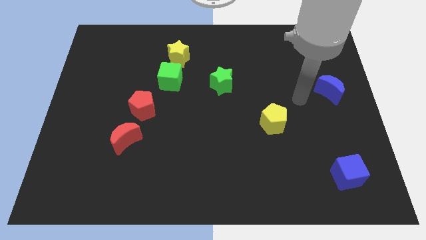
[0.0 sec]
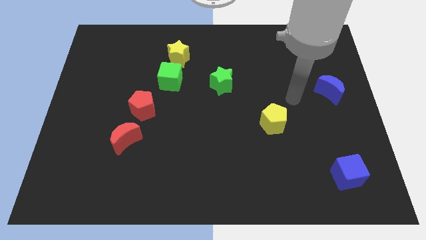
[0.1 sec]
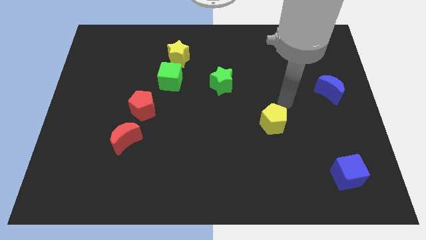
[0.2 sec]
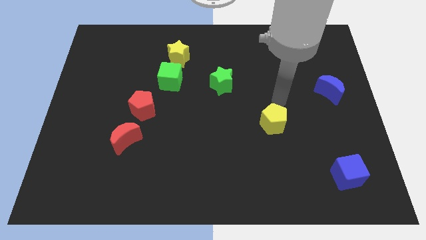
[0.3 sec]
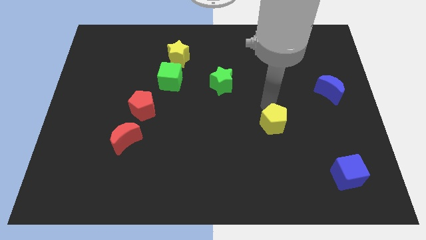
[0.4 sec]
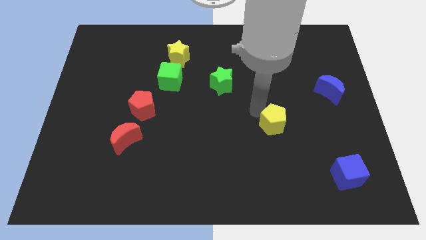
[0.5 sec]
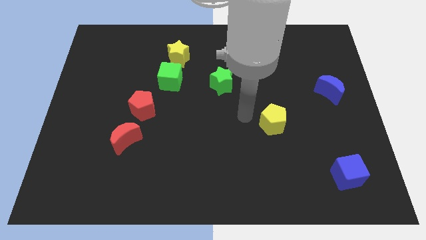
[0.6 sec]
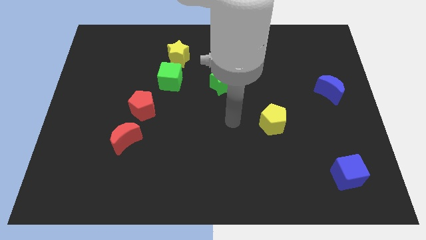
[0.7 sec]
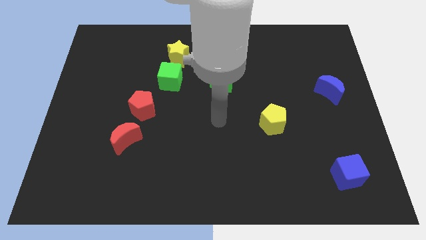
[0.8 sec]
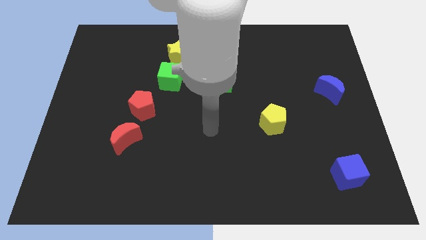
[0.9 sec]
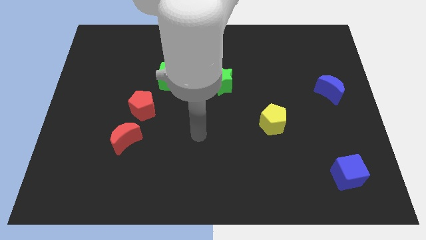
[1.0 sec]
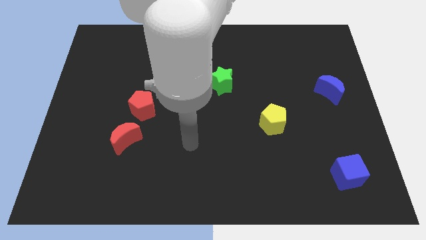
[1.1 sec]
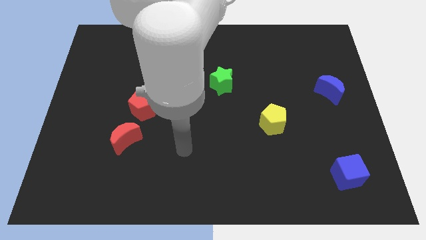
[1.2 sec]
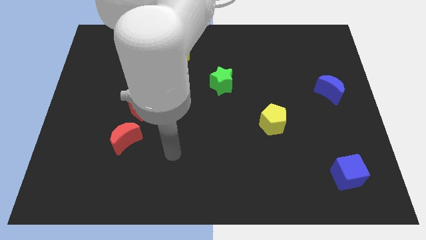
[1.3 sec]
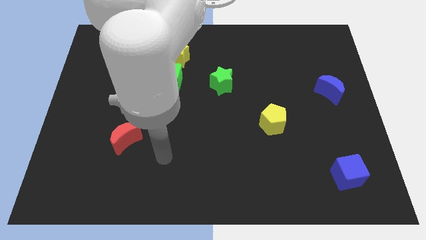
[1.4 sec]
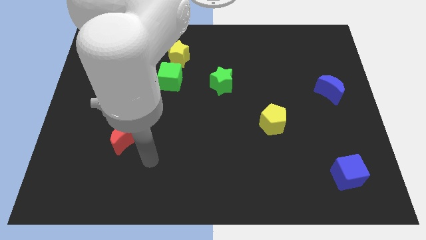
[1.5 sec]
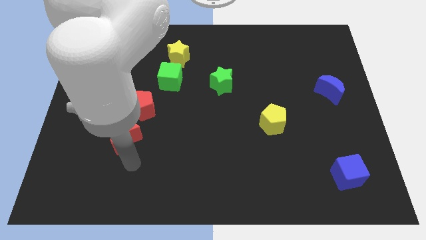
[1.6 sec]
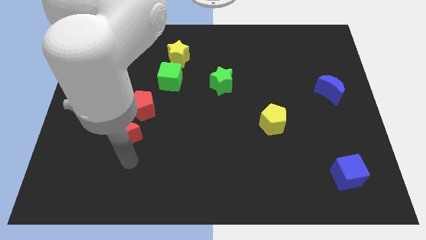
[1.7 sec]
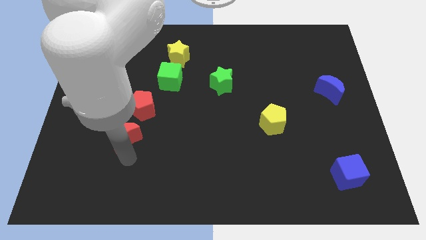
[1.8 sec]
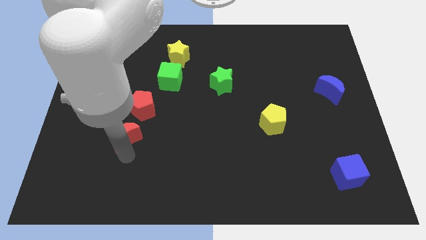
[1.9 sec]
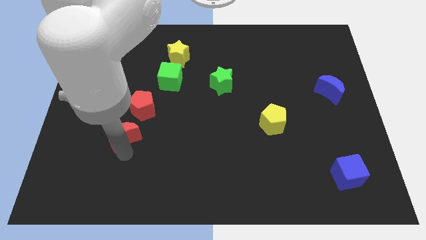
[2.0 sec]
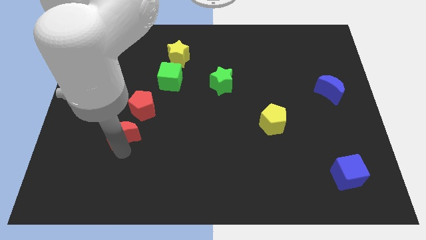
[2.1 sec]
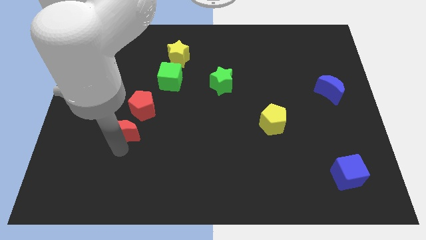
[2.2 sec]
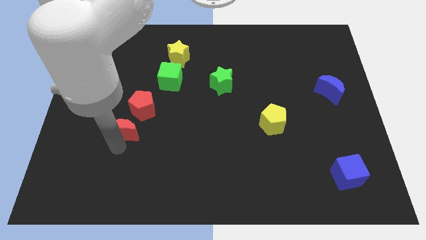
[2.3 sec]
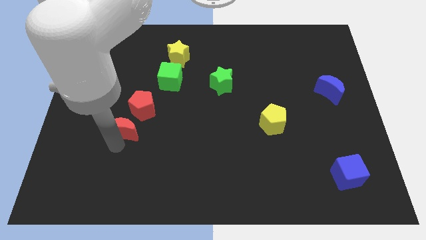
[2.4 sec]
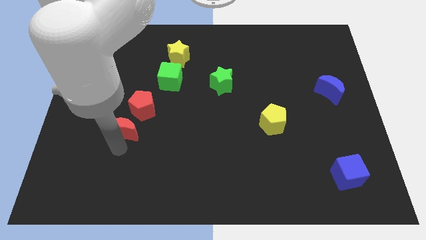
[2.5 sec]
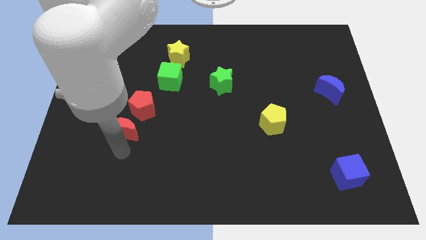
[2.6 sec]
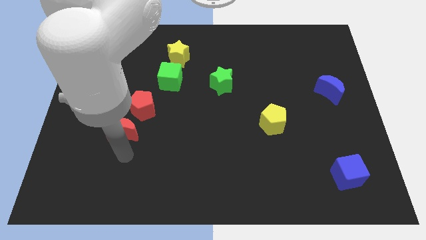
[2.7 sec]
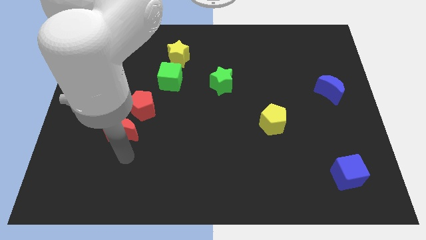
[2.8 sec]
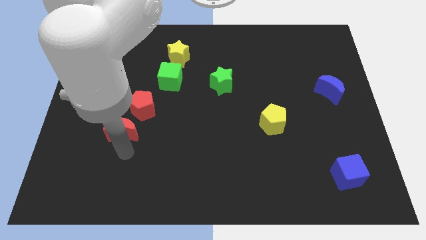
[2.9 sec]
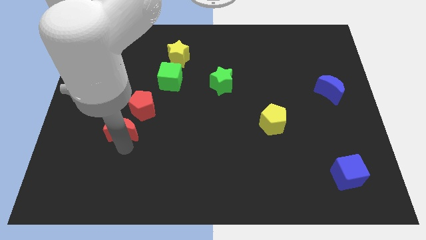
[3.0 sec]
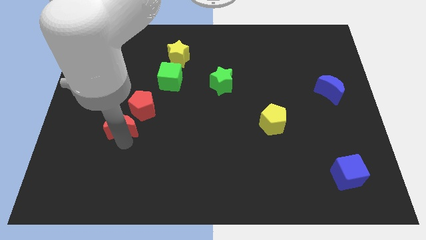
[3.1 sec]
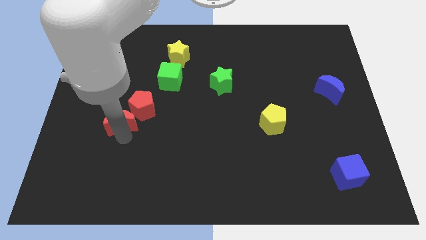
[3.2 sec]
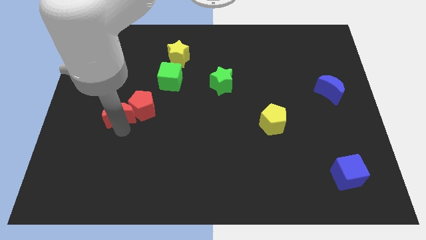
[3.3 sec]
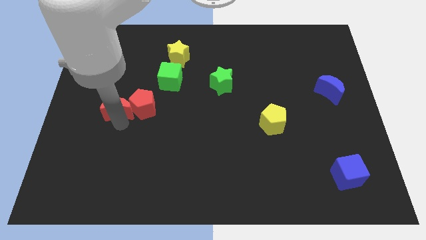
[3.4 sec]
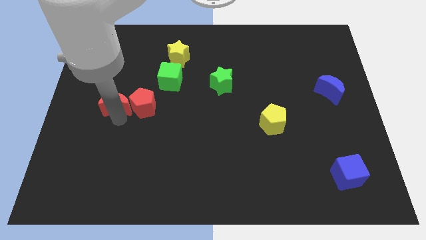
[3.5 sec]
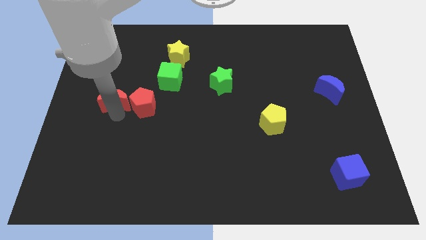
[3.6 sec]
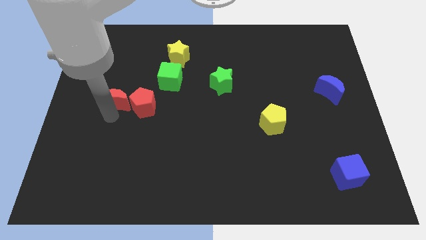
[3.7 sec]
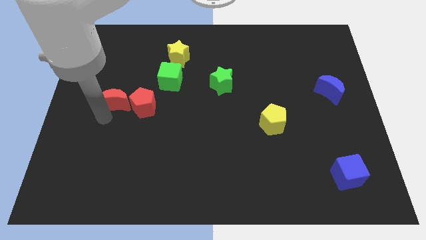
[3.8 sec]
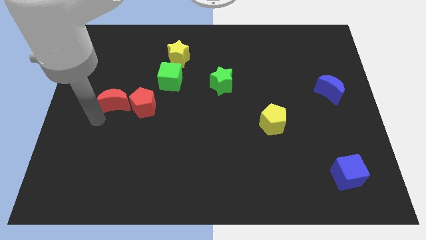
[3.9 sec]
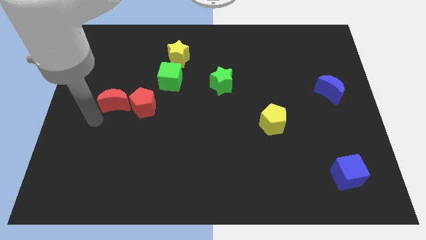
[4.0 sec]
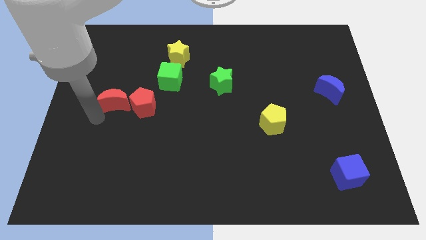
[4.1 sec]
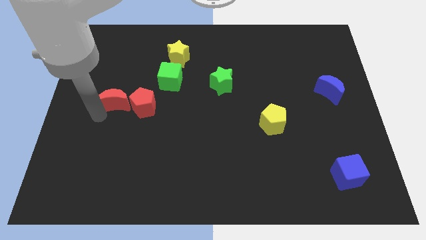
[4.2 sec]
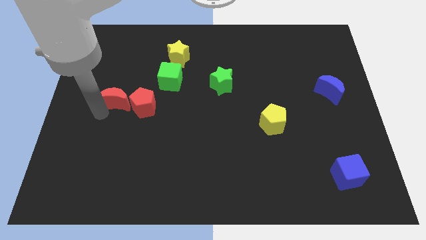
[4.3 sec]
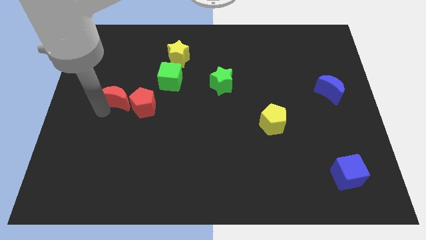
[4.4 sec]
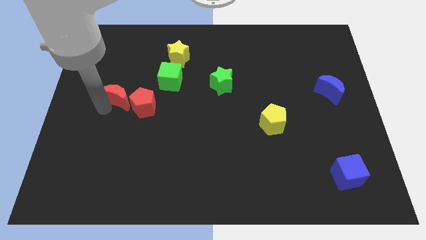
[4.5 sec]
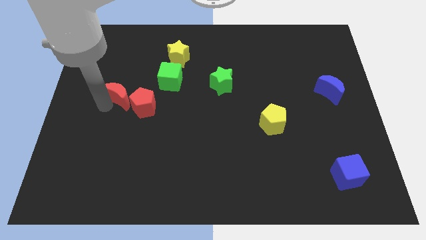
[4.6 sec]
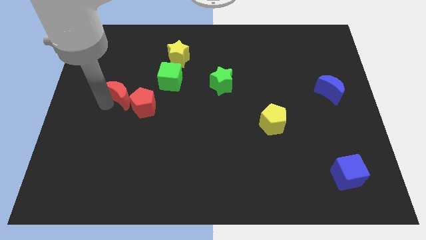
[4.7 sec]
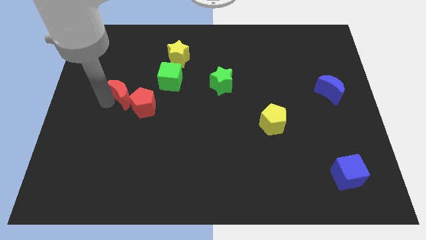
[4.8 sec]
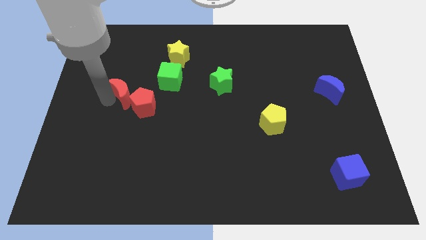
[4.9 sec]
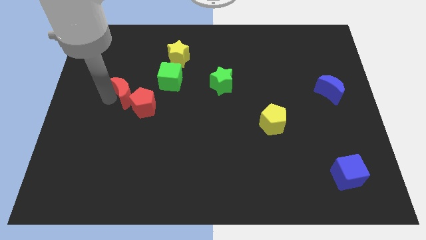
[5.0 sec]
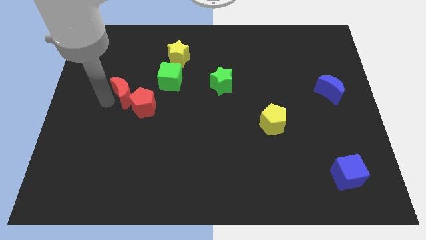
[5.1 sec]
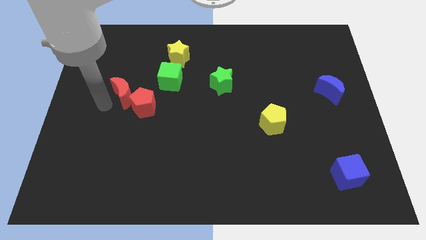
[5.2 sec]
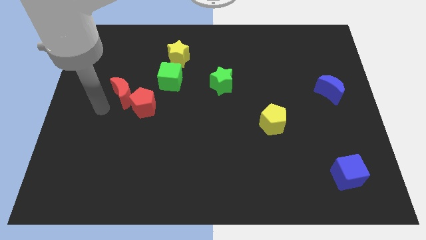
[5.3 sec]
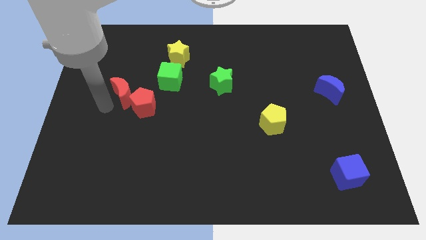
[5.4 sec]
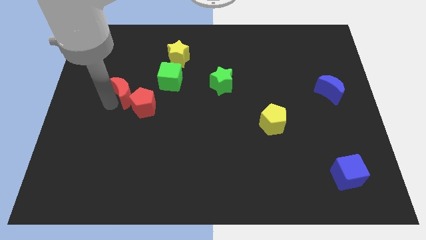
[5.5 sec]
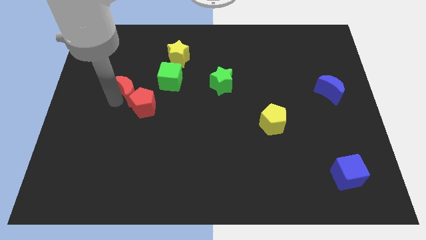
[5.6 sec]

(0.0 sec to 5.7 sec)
put the red moon to the top of the red pentagon

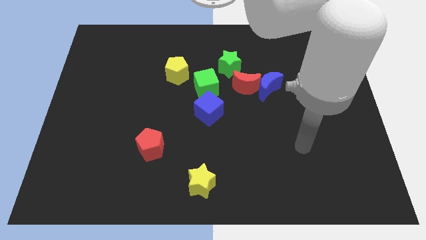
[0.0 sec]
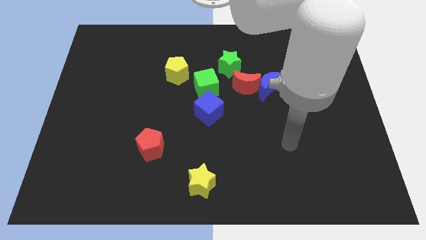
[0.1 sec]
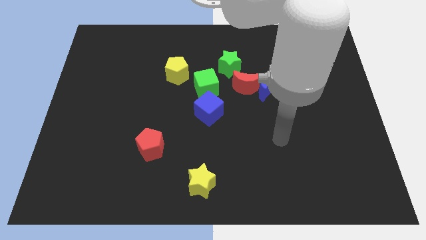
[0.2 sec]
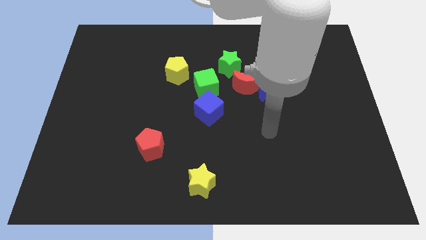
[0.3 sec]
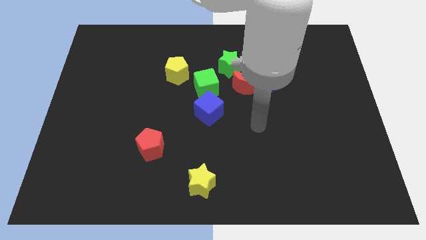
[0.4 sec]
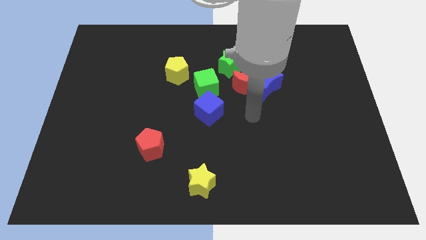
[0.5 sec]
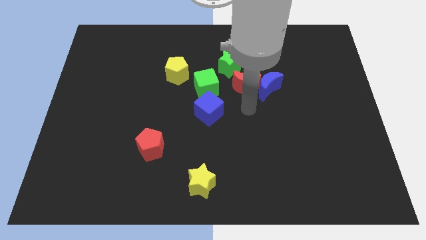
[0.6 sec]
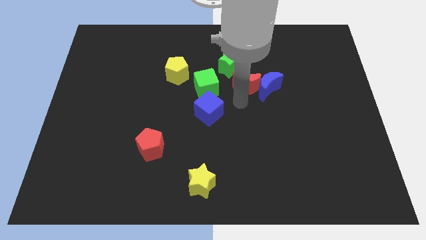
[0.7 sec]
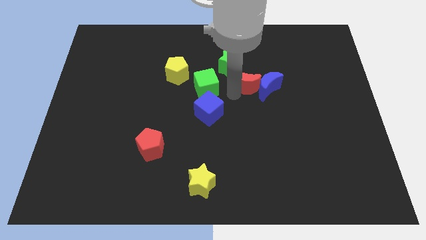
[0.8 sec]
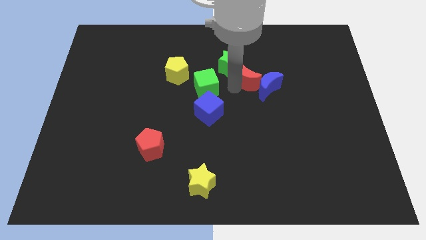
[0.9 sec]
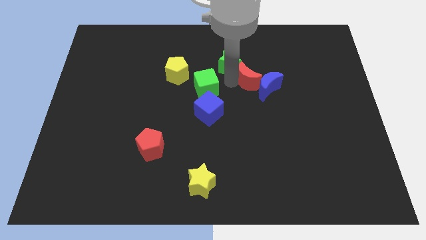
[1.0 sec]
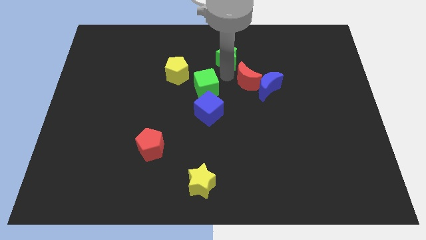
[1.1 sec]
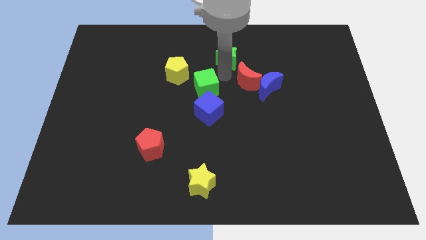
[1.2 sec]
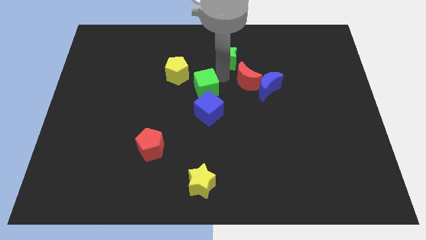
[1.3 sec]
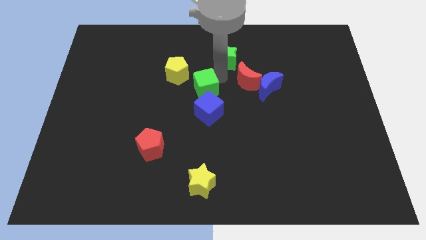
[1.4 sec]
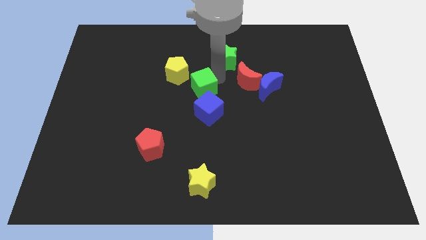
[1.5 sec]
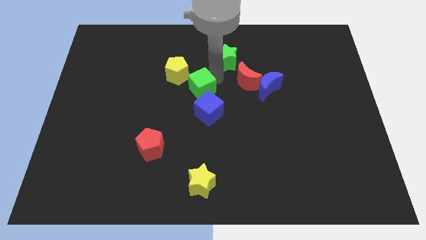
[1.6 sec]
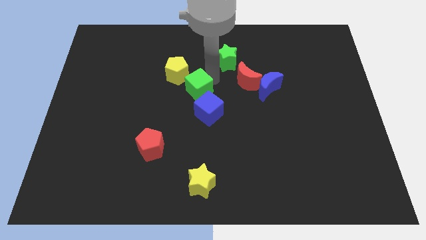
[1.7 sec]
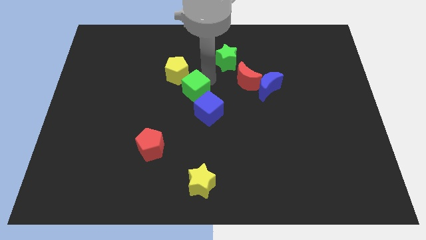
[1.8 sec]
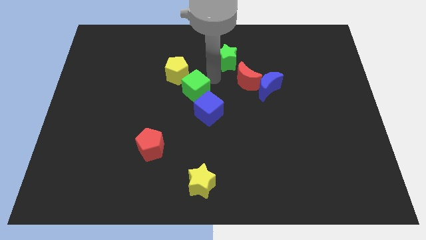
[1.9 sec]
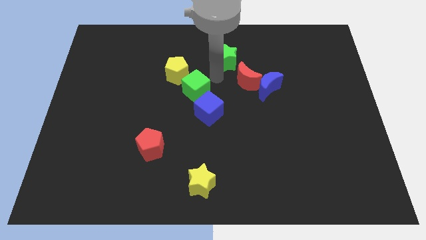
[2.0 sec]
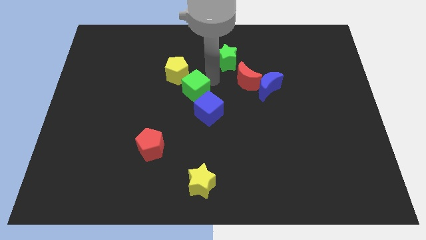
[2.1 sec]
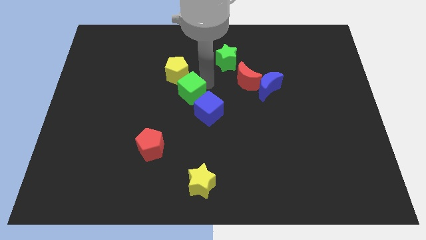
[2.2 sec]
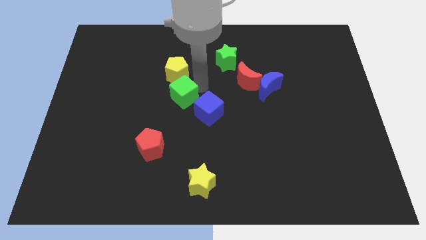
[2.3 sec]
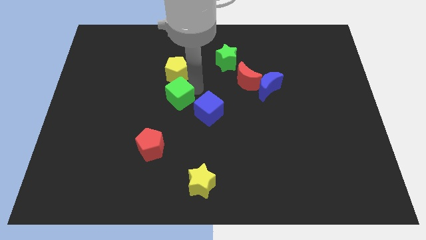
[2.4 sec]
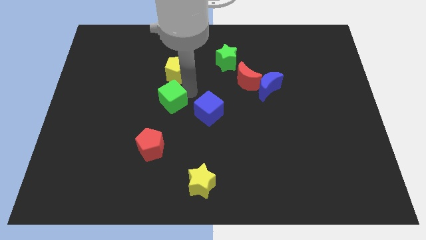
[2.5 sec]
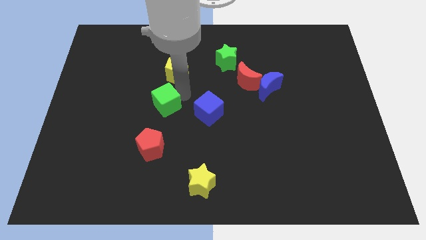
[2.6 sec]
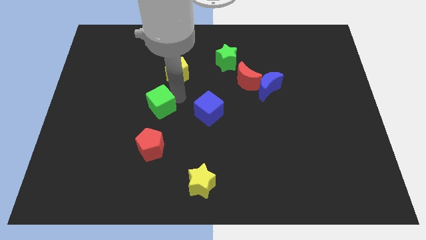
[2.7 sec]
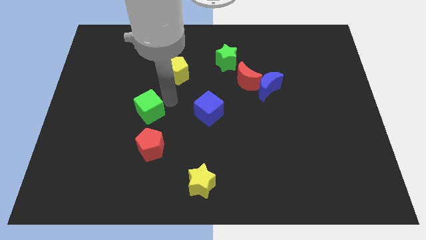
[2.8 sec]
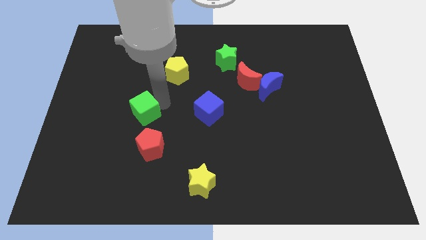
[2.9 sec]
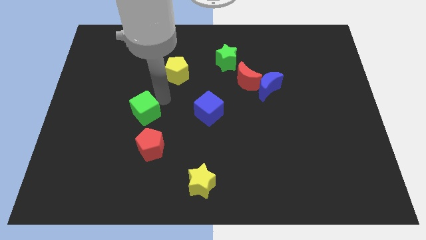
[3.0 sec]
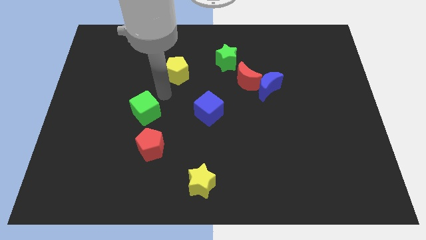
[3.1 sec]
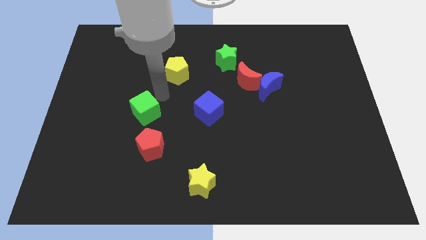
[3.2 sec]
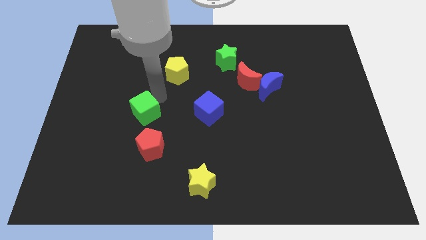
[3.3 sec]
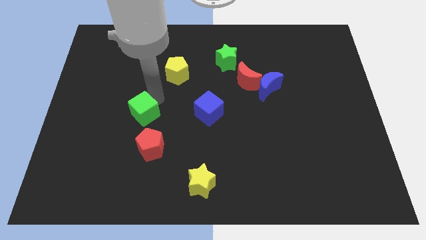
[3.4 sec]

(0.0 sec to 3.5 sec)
put the green cube to the top left side of the red pentagon
